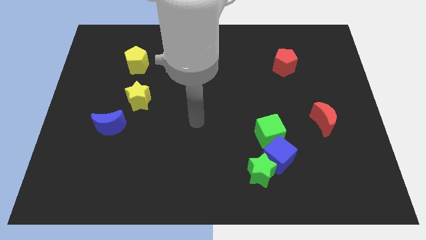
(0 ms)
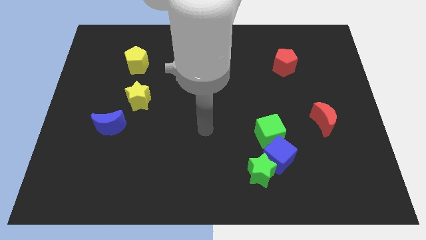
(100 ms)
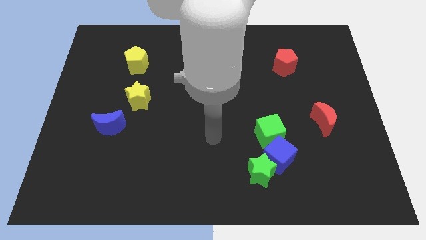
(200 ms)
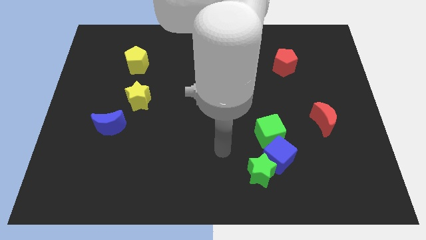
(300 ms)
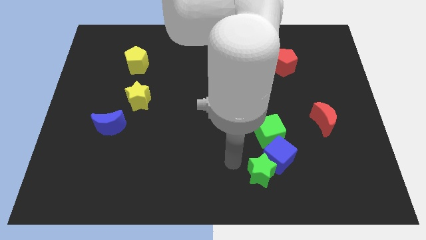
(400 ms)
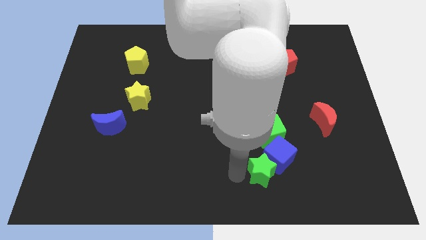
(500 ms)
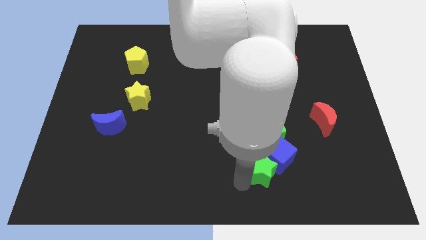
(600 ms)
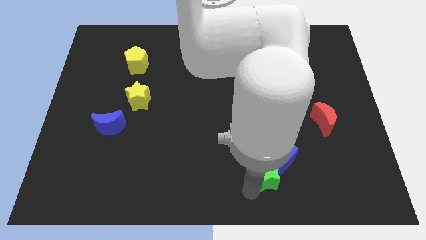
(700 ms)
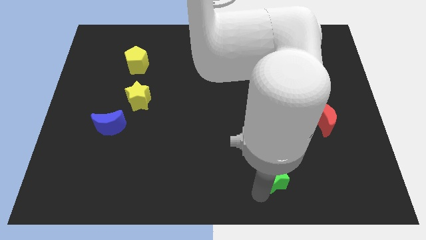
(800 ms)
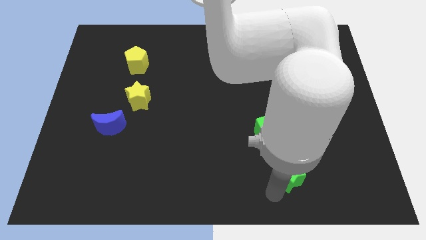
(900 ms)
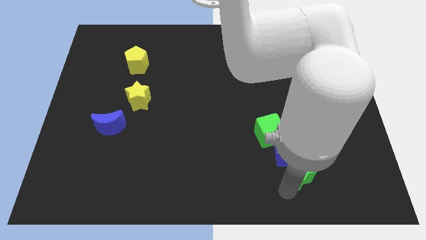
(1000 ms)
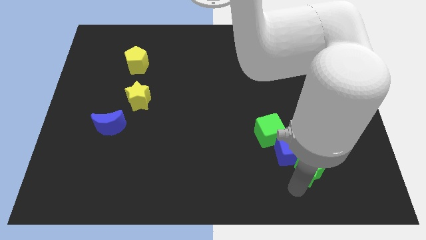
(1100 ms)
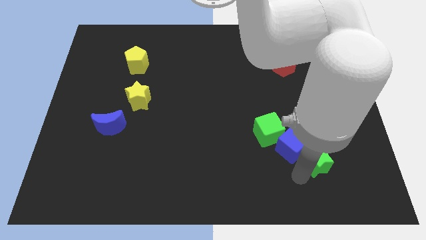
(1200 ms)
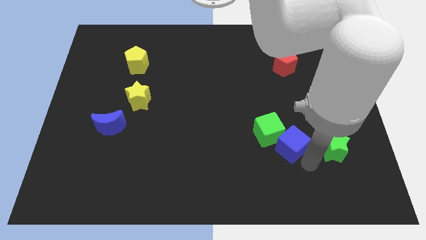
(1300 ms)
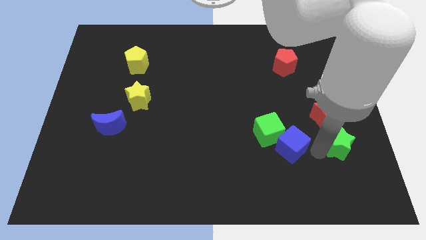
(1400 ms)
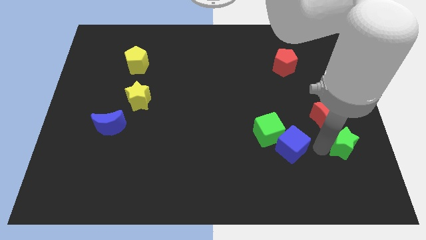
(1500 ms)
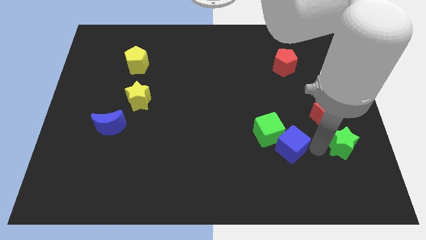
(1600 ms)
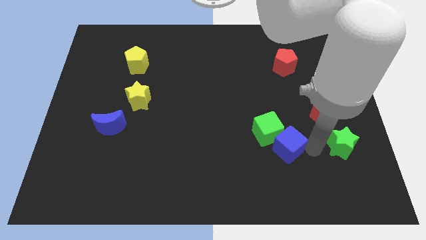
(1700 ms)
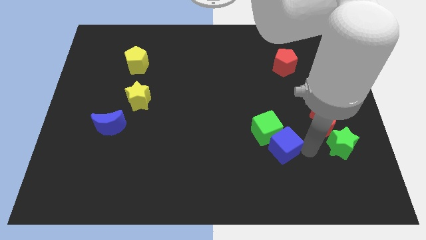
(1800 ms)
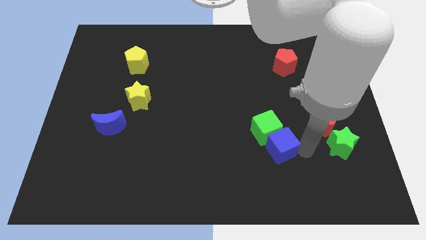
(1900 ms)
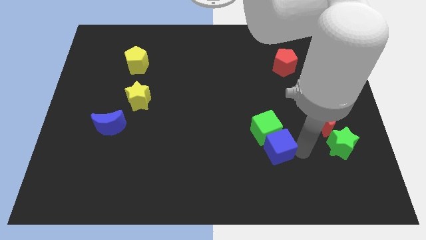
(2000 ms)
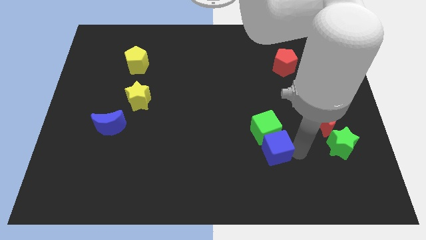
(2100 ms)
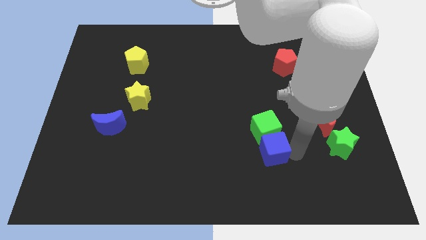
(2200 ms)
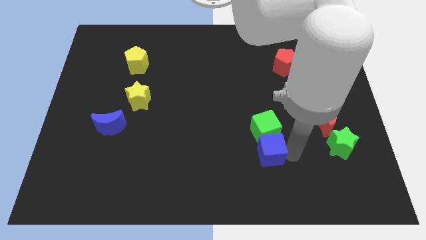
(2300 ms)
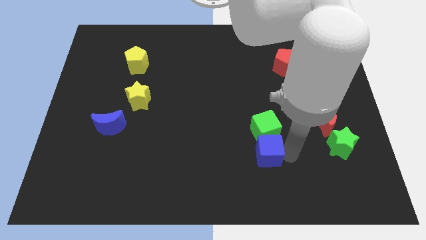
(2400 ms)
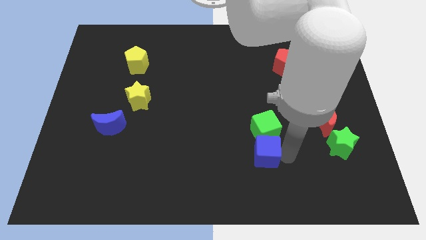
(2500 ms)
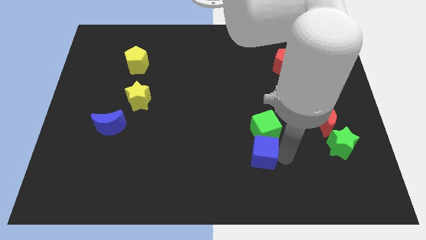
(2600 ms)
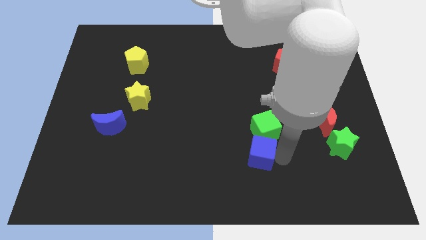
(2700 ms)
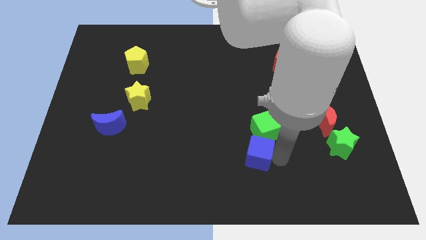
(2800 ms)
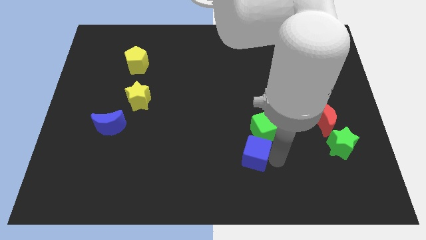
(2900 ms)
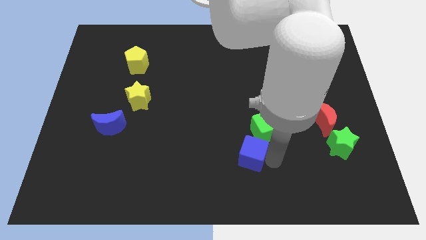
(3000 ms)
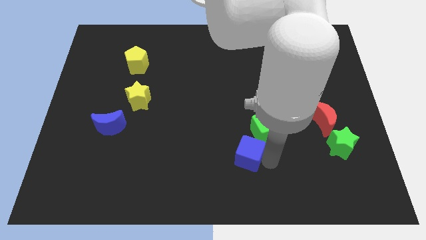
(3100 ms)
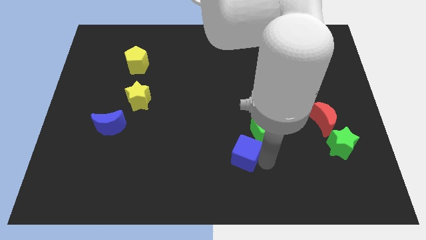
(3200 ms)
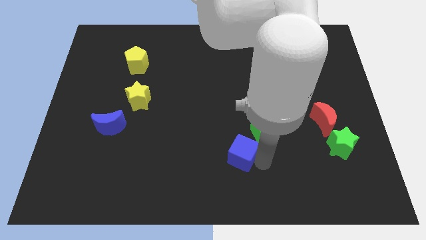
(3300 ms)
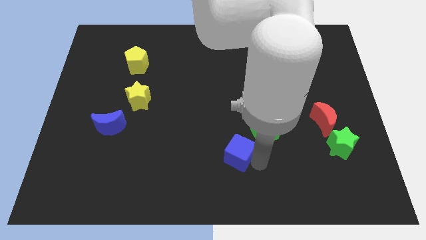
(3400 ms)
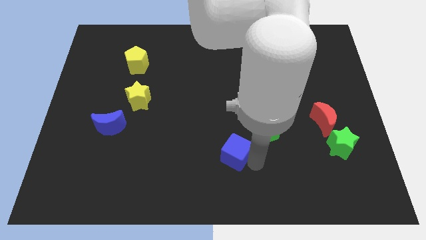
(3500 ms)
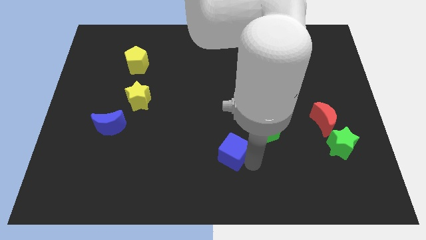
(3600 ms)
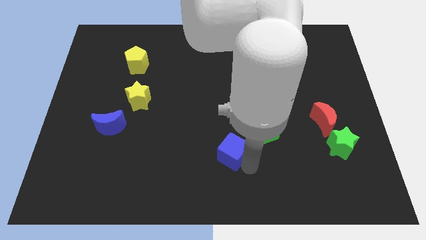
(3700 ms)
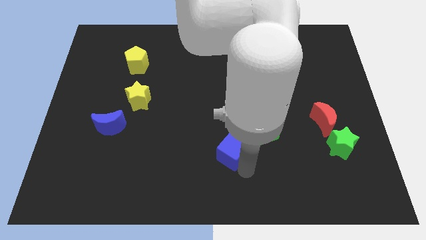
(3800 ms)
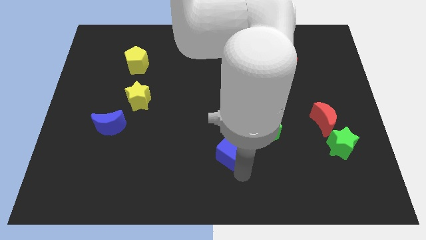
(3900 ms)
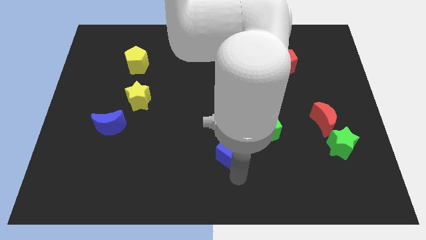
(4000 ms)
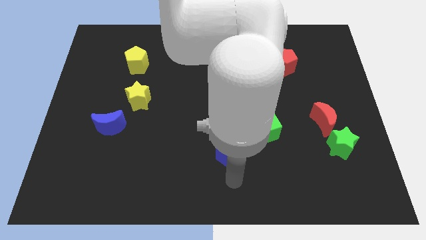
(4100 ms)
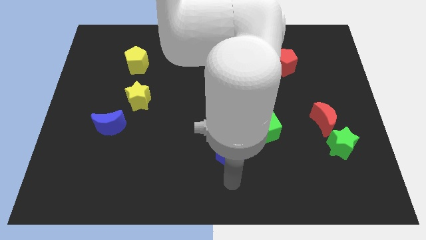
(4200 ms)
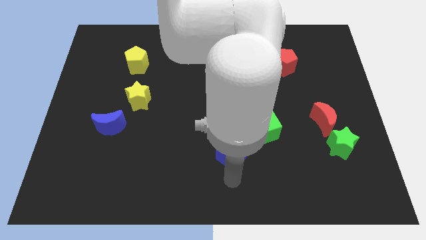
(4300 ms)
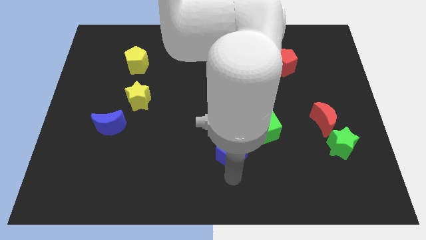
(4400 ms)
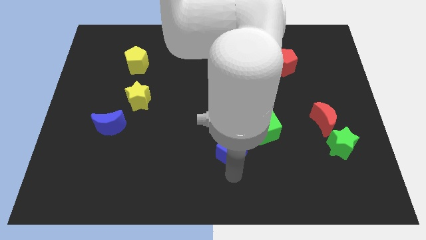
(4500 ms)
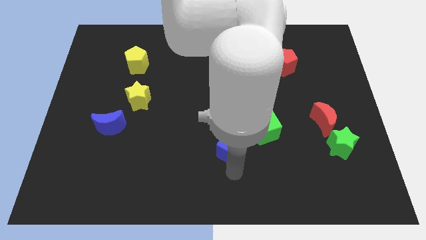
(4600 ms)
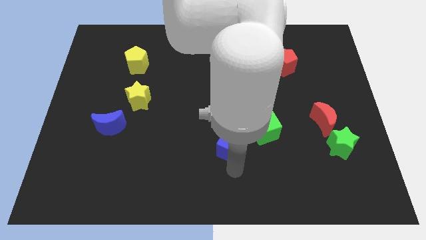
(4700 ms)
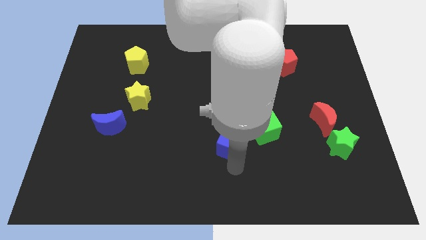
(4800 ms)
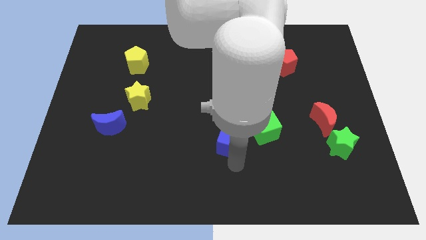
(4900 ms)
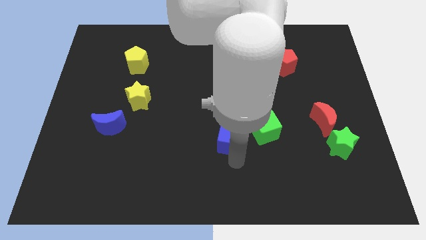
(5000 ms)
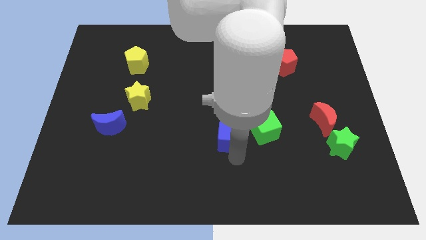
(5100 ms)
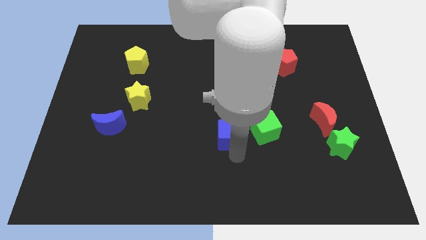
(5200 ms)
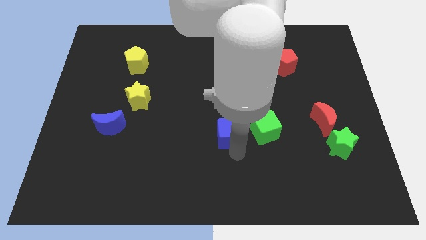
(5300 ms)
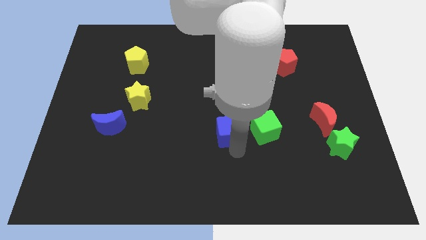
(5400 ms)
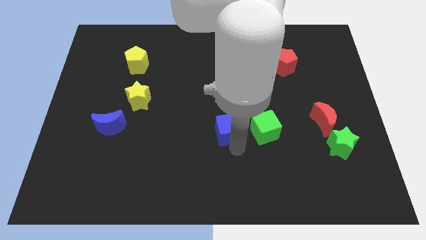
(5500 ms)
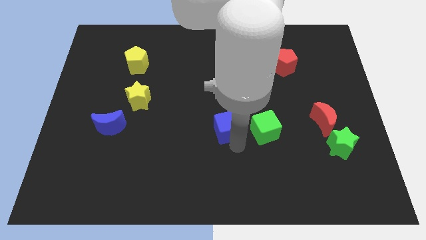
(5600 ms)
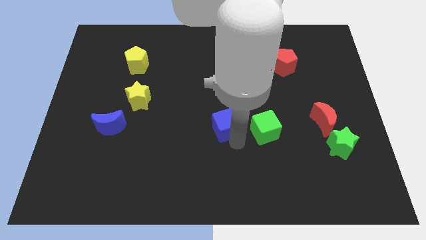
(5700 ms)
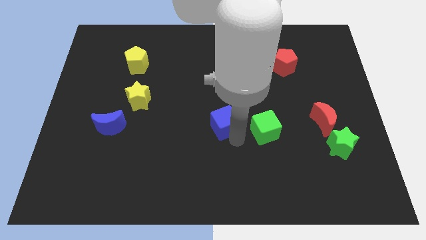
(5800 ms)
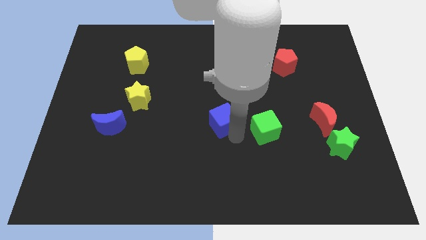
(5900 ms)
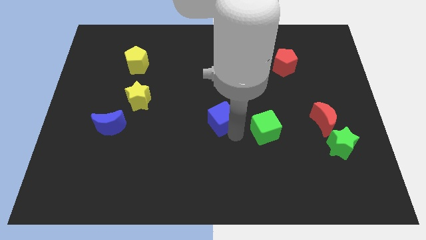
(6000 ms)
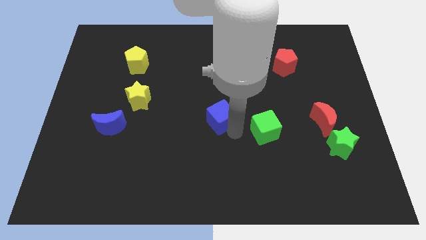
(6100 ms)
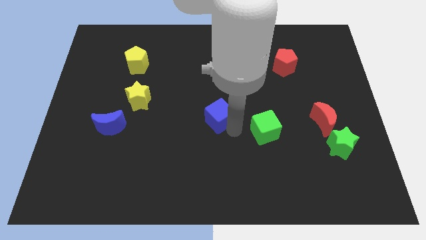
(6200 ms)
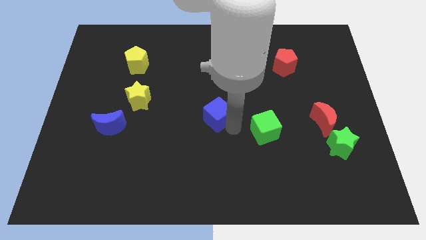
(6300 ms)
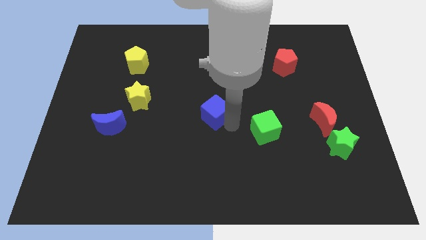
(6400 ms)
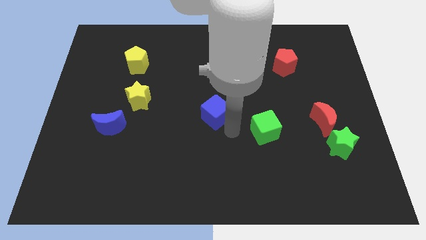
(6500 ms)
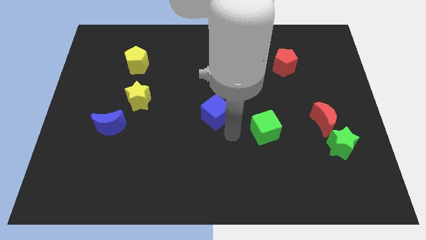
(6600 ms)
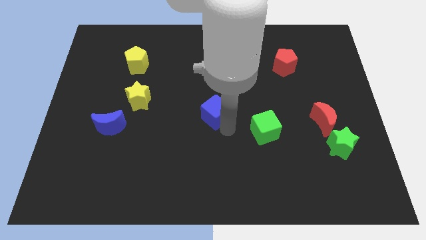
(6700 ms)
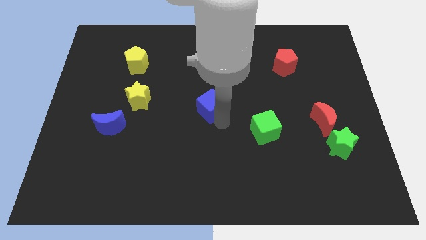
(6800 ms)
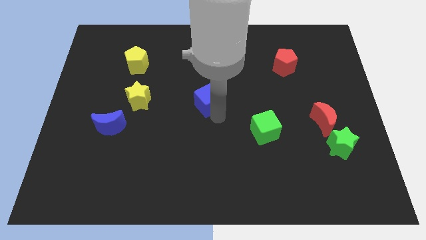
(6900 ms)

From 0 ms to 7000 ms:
move the blue cube upwards and then left

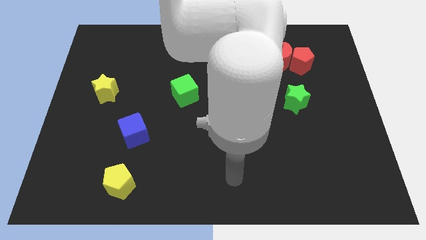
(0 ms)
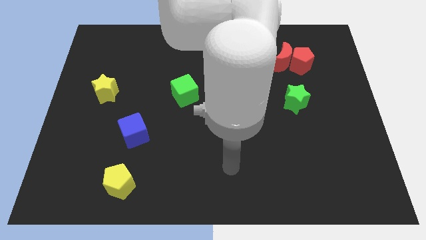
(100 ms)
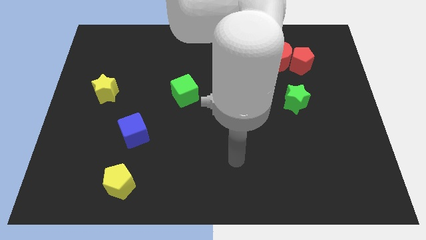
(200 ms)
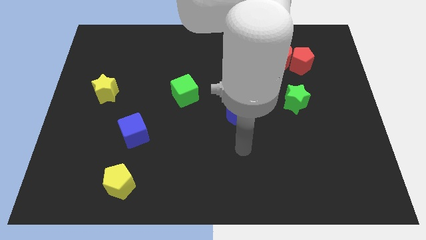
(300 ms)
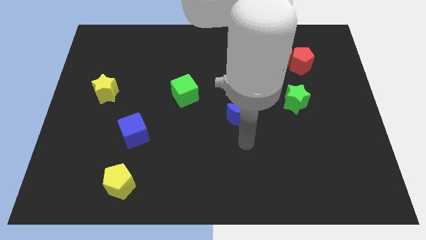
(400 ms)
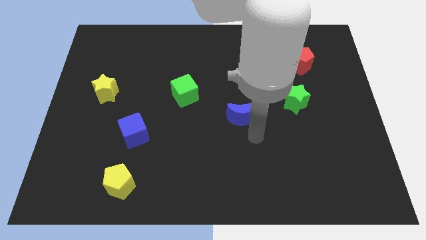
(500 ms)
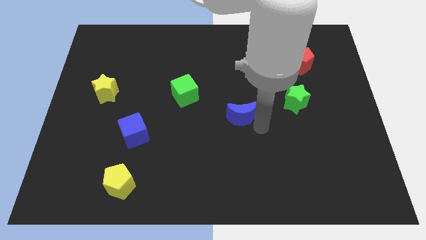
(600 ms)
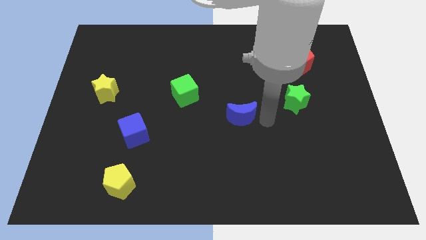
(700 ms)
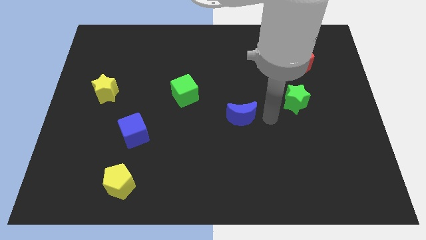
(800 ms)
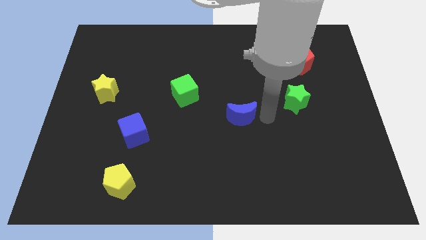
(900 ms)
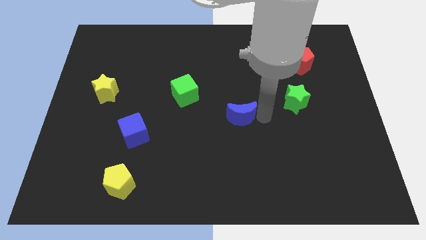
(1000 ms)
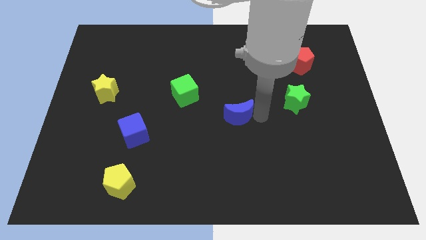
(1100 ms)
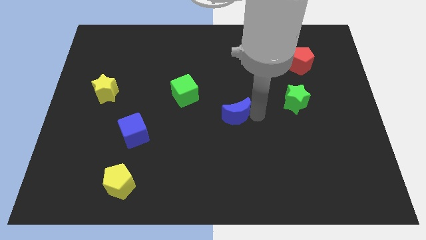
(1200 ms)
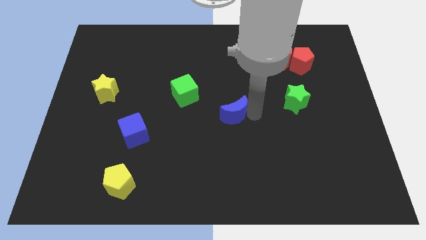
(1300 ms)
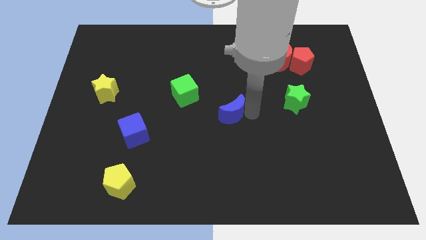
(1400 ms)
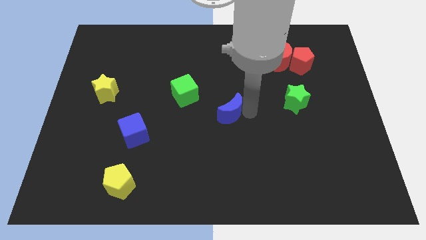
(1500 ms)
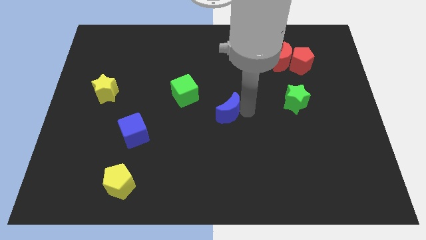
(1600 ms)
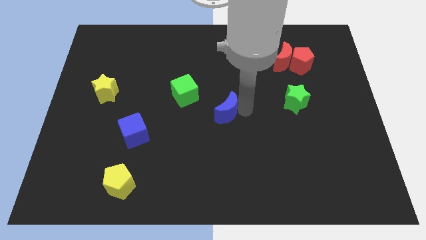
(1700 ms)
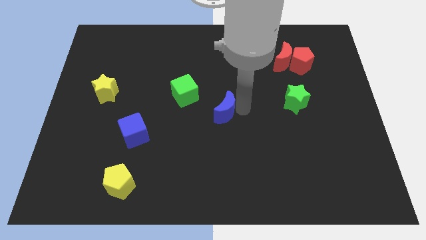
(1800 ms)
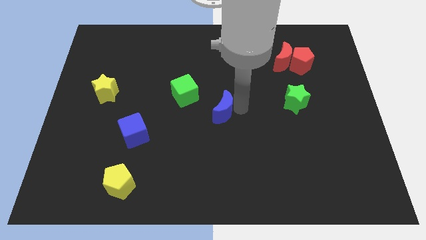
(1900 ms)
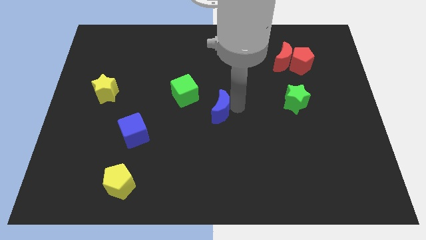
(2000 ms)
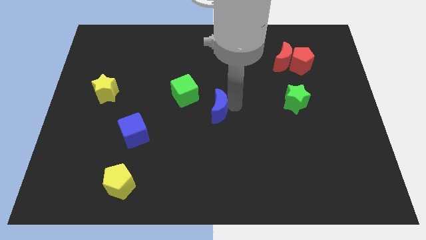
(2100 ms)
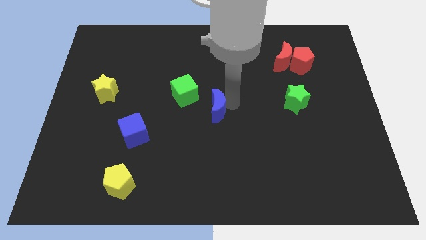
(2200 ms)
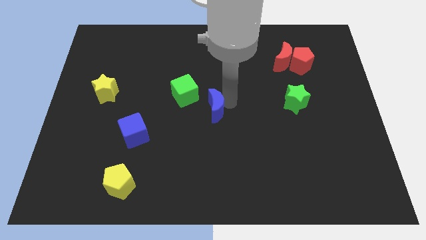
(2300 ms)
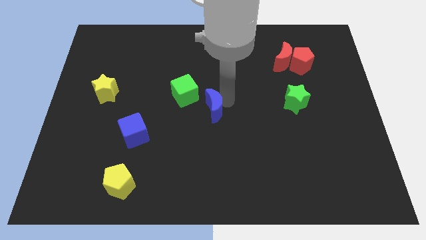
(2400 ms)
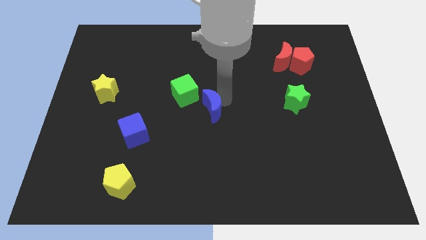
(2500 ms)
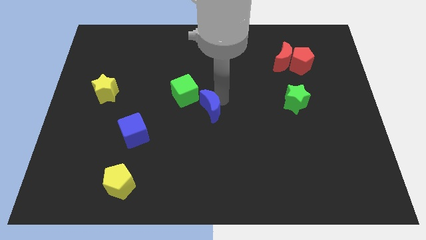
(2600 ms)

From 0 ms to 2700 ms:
slightly push the blue moon left
